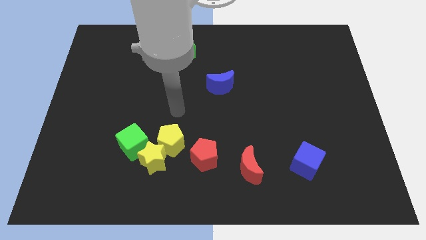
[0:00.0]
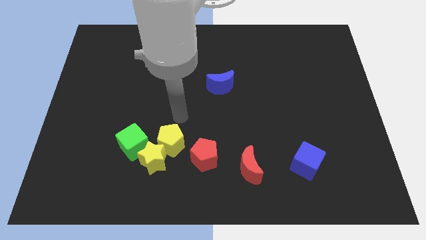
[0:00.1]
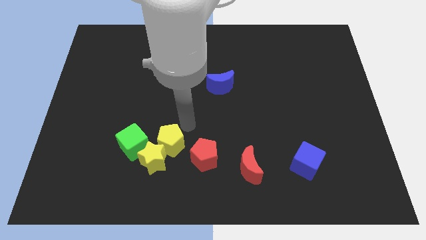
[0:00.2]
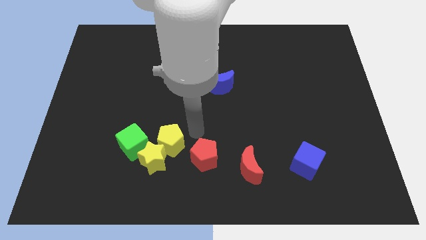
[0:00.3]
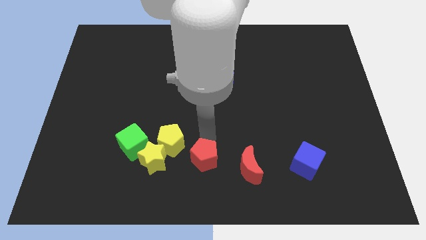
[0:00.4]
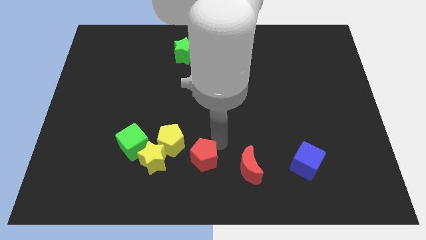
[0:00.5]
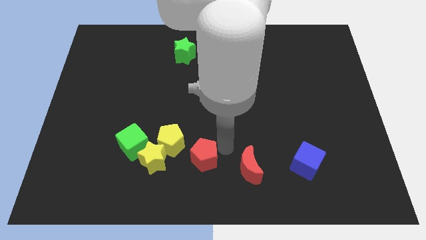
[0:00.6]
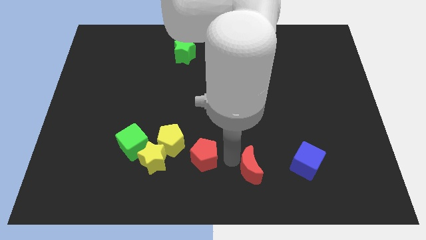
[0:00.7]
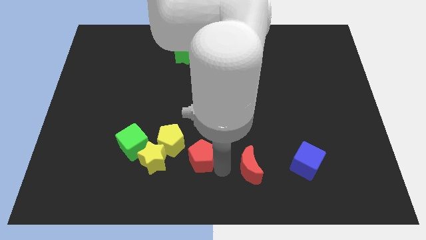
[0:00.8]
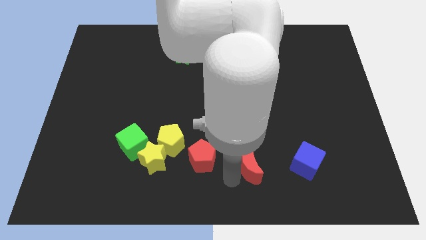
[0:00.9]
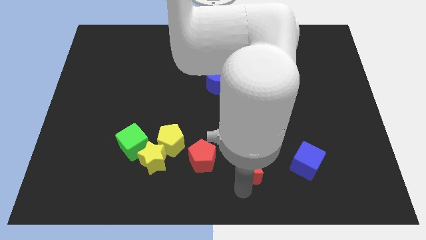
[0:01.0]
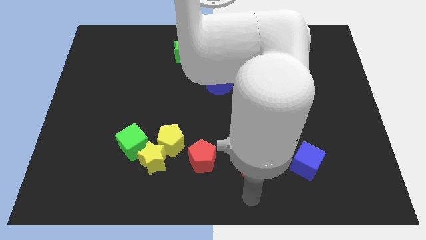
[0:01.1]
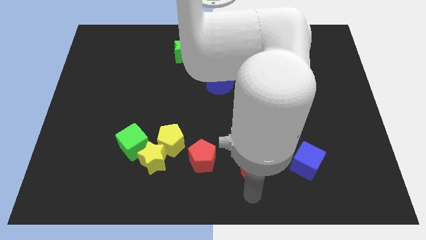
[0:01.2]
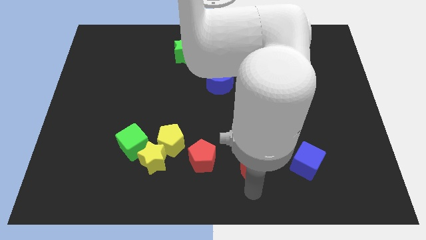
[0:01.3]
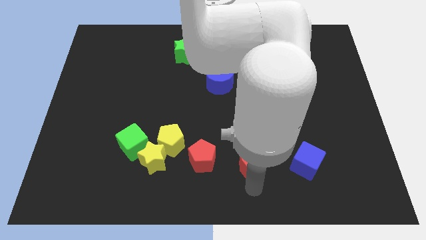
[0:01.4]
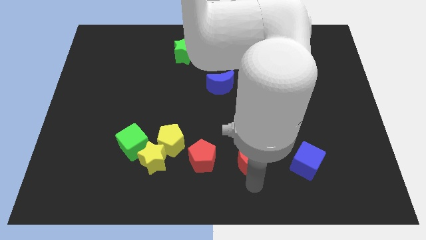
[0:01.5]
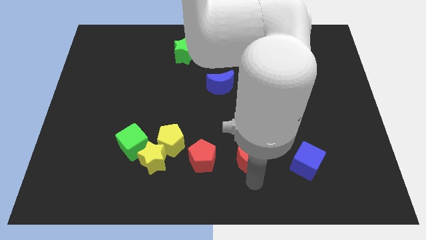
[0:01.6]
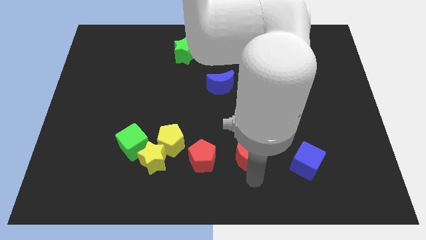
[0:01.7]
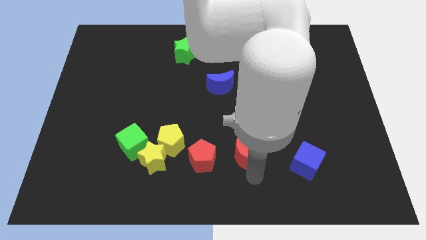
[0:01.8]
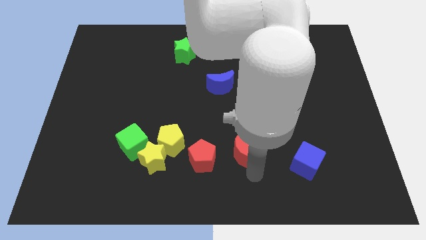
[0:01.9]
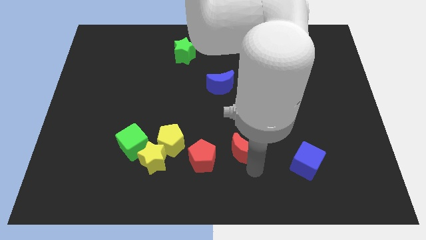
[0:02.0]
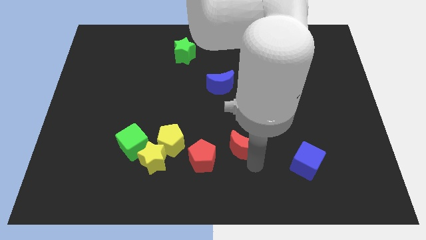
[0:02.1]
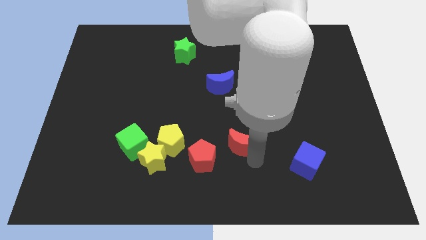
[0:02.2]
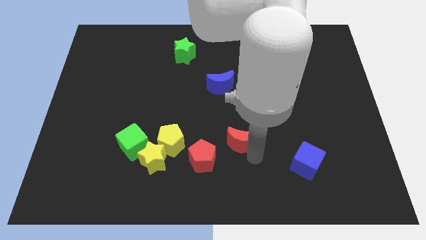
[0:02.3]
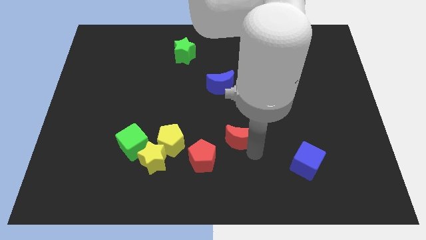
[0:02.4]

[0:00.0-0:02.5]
slightly move the red moon upwards

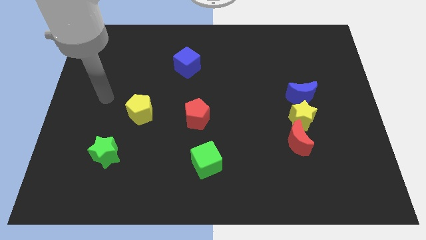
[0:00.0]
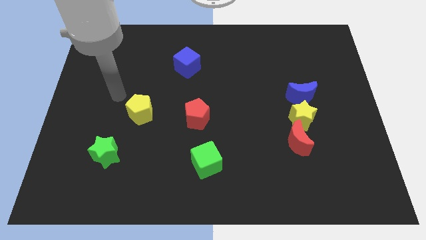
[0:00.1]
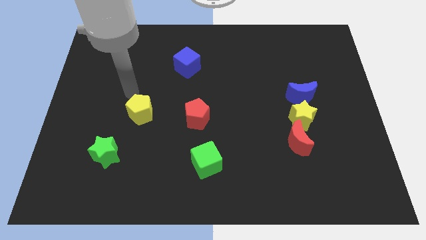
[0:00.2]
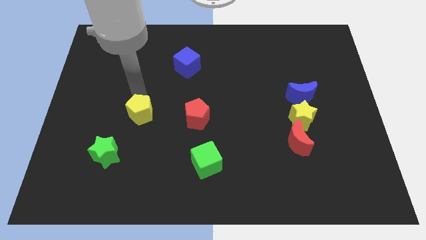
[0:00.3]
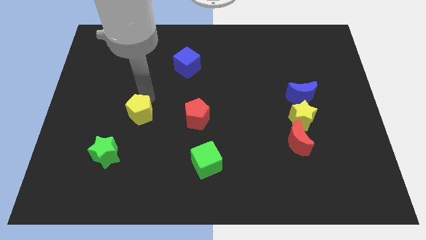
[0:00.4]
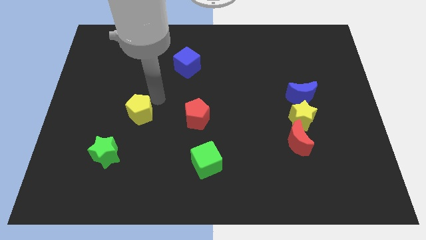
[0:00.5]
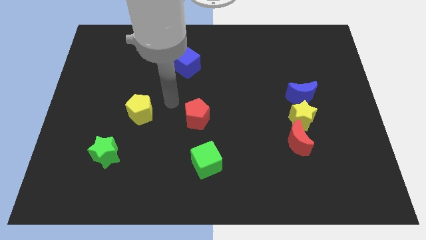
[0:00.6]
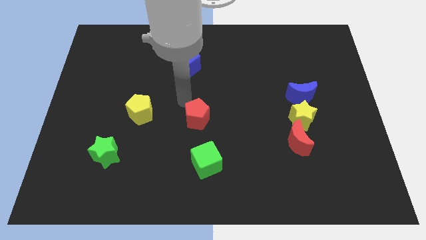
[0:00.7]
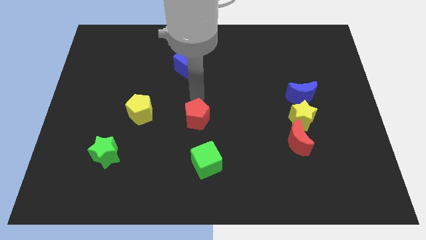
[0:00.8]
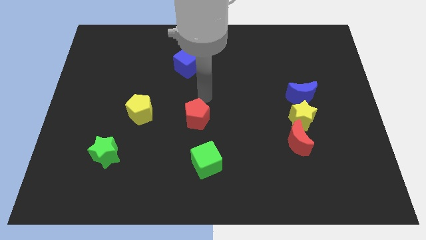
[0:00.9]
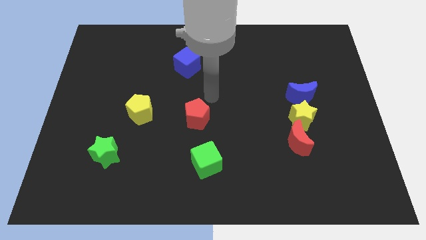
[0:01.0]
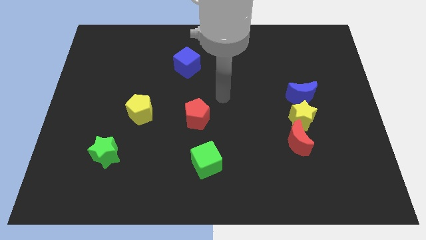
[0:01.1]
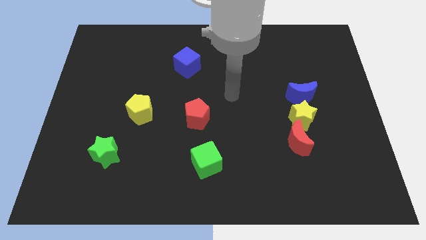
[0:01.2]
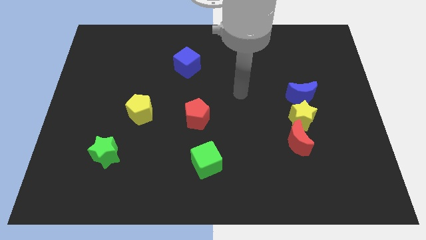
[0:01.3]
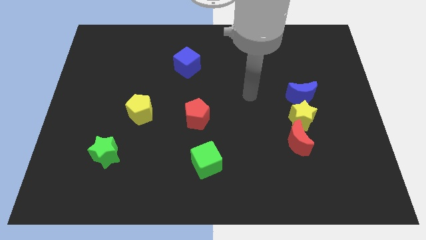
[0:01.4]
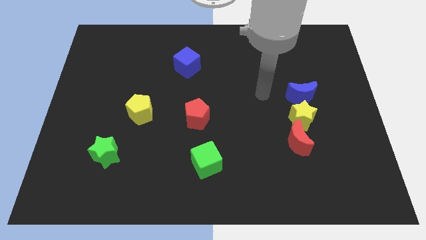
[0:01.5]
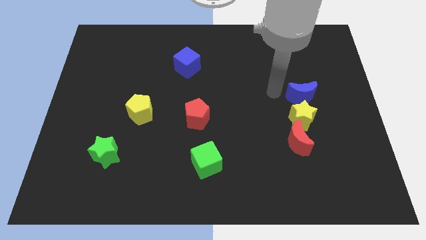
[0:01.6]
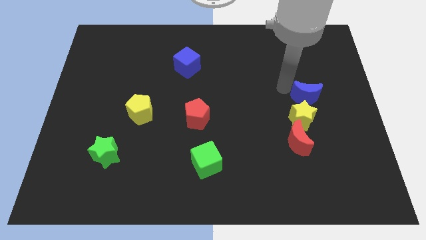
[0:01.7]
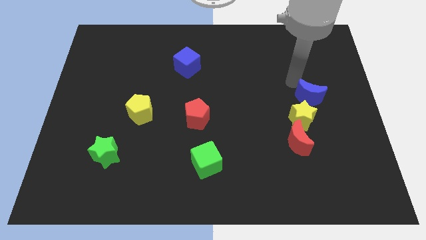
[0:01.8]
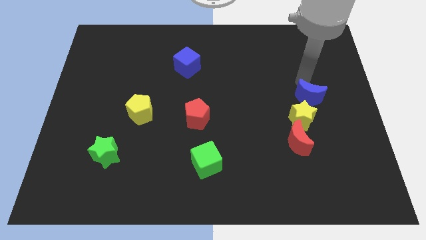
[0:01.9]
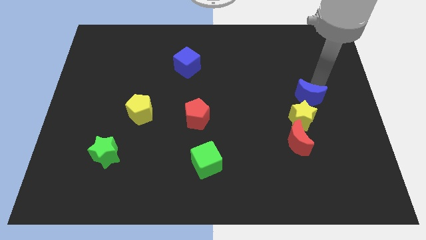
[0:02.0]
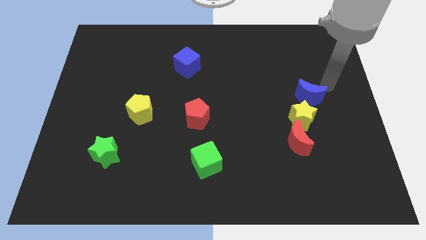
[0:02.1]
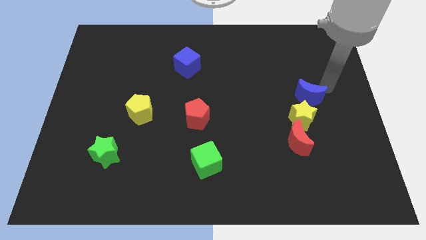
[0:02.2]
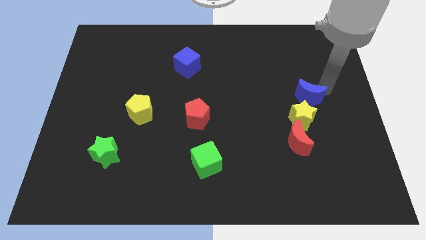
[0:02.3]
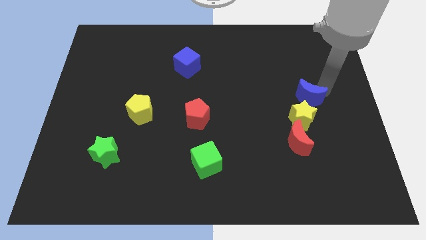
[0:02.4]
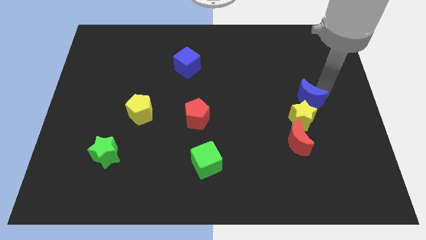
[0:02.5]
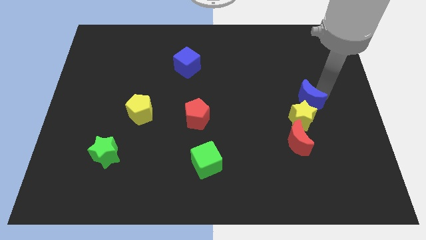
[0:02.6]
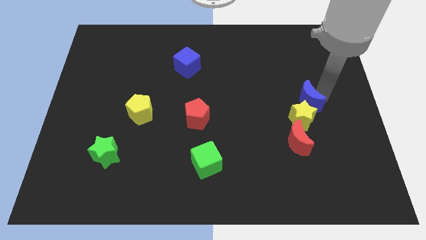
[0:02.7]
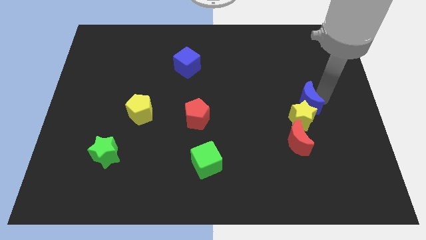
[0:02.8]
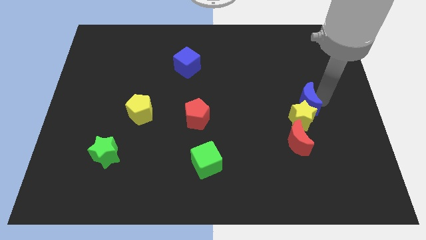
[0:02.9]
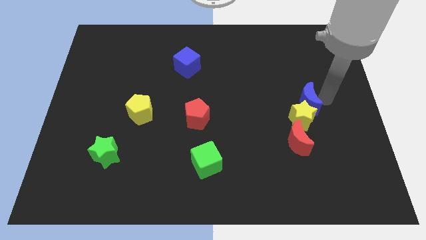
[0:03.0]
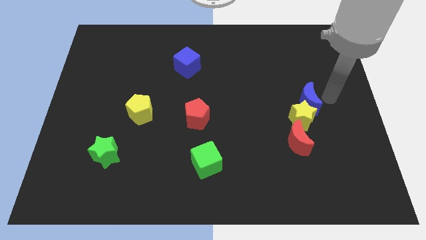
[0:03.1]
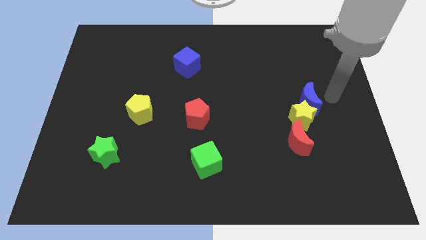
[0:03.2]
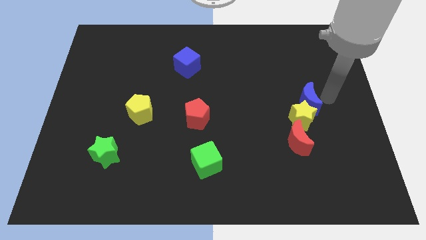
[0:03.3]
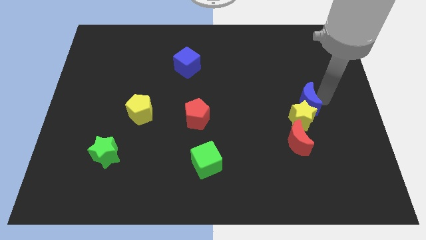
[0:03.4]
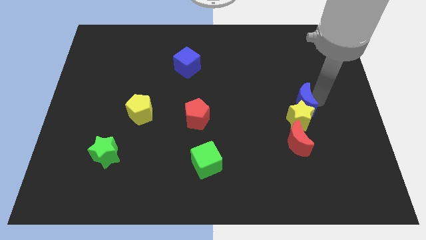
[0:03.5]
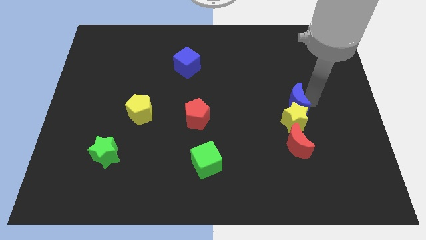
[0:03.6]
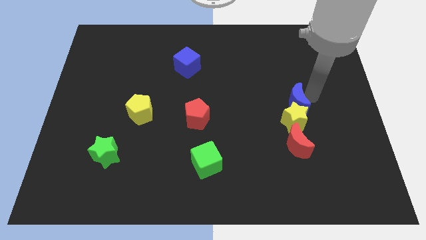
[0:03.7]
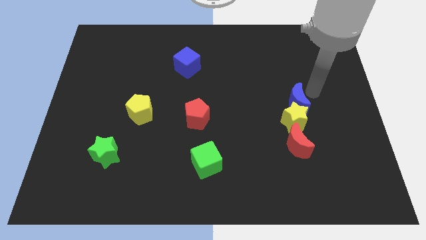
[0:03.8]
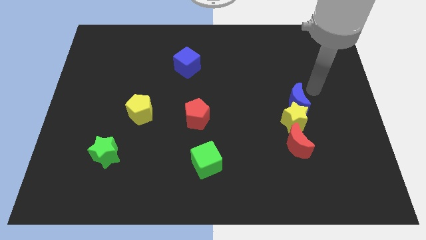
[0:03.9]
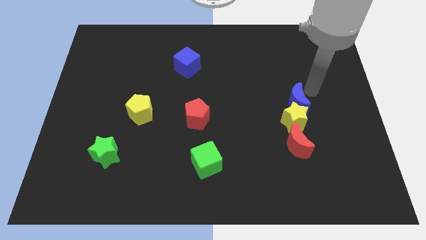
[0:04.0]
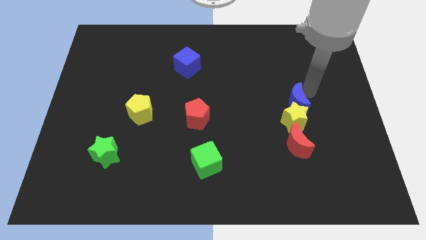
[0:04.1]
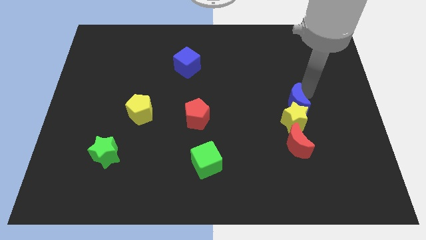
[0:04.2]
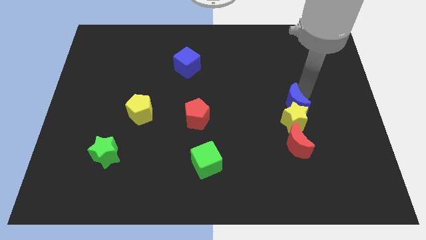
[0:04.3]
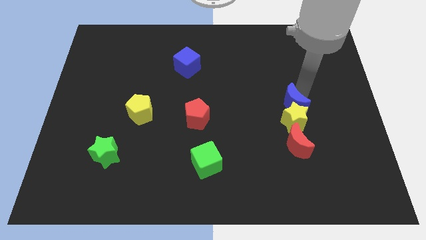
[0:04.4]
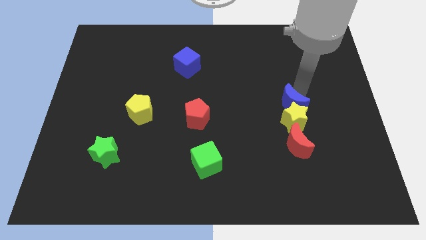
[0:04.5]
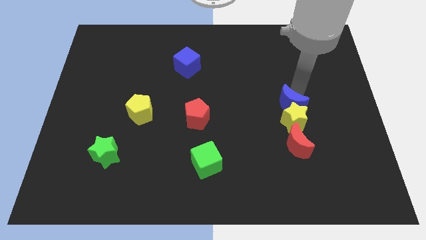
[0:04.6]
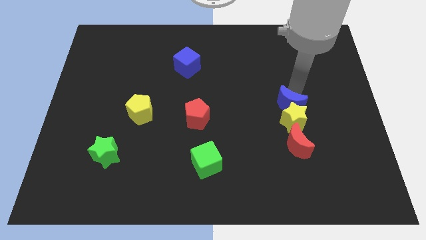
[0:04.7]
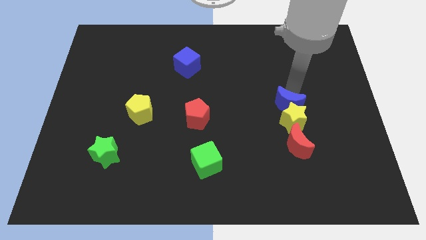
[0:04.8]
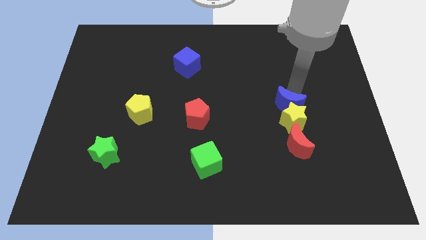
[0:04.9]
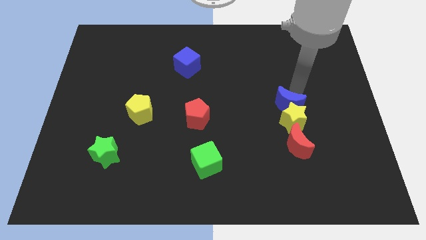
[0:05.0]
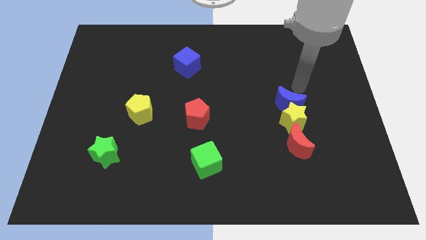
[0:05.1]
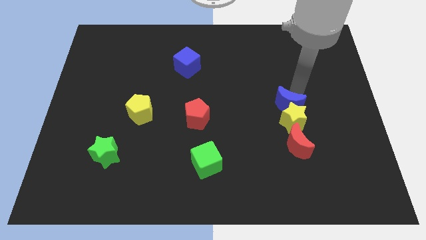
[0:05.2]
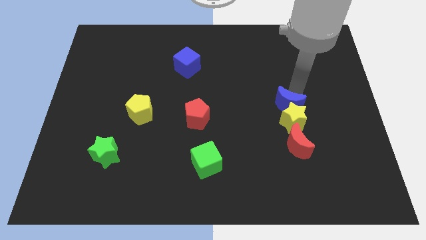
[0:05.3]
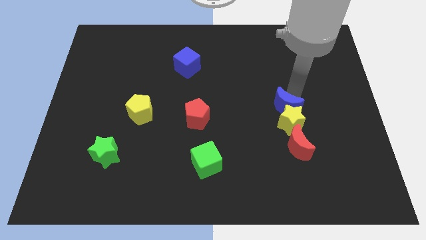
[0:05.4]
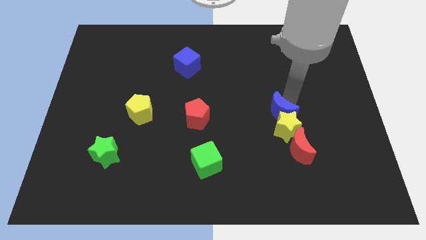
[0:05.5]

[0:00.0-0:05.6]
move the blue moon a little downwards and left

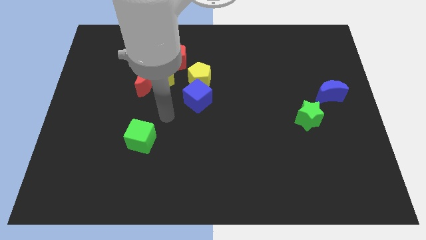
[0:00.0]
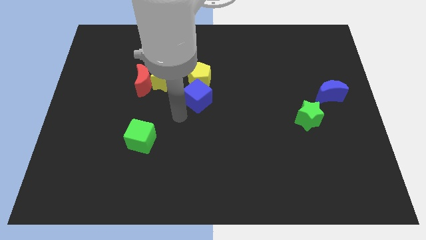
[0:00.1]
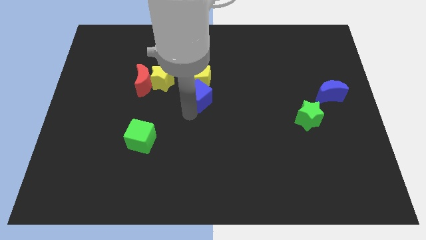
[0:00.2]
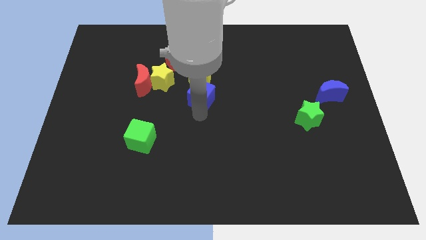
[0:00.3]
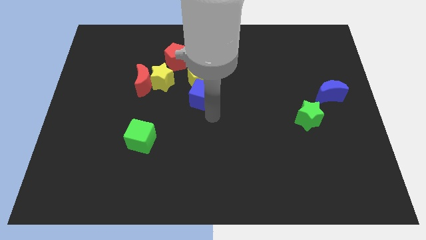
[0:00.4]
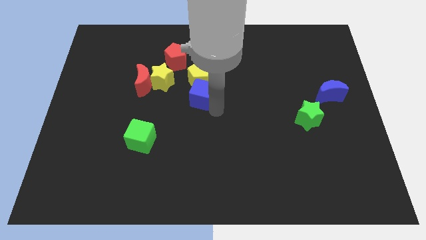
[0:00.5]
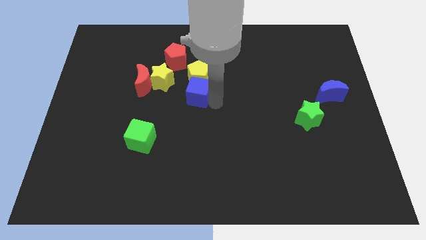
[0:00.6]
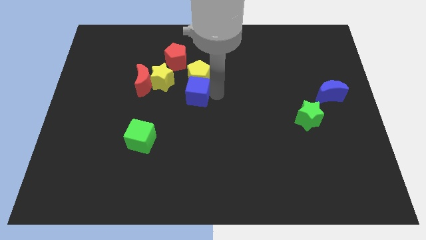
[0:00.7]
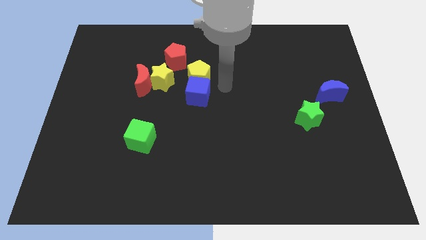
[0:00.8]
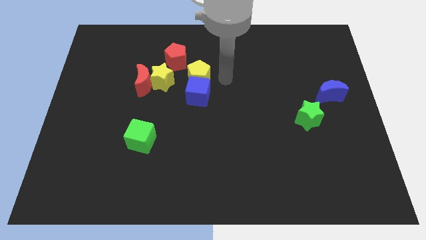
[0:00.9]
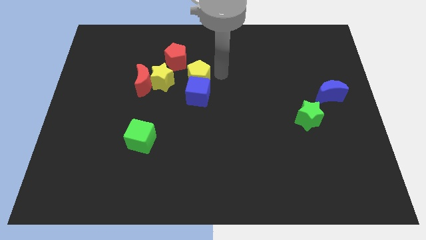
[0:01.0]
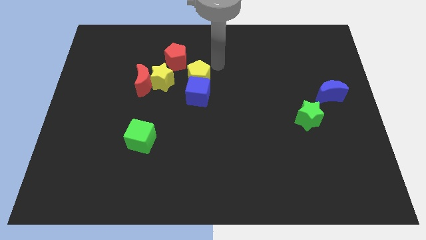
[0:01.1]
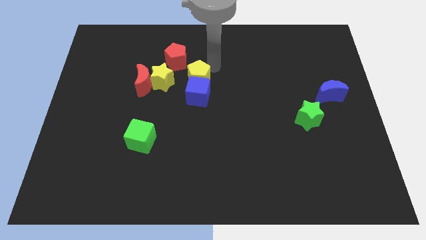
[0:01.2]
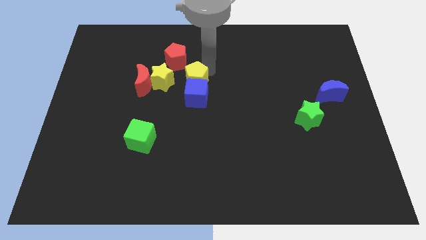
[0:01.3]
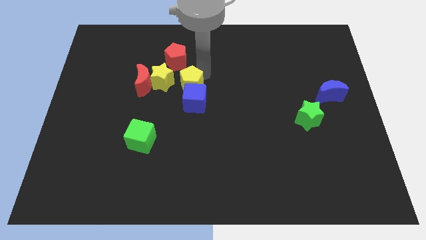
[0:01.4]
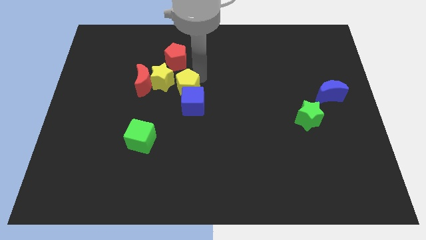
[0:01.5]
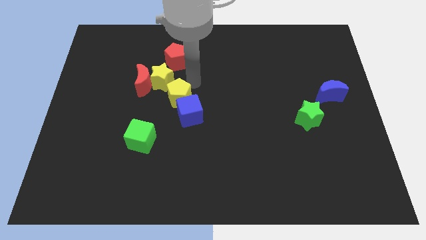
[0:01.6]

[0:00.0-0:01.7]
push the yellow pentagon down and then to the left a bit
